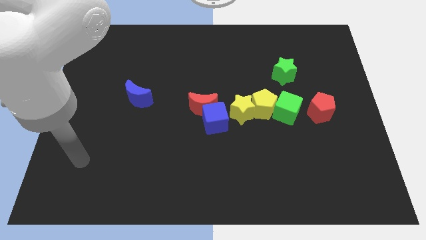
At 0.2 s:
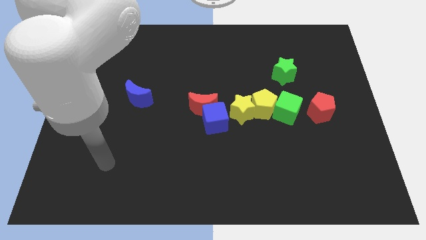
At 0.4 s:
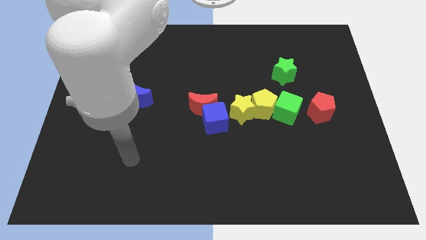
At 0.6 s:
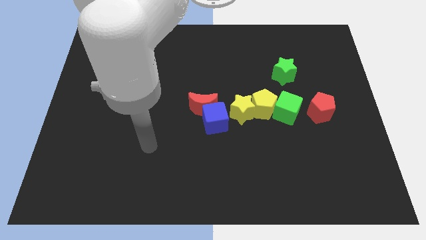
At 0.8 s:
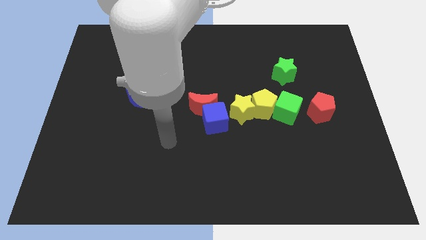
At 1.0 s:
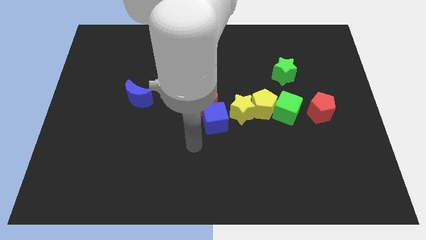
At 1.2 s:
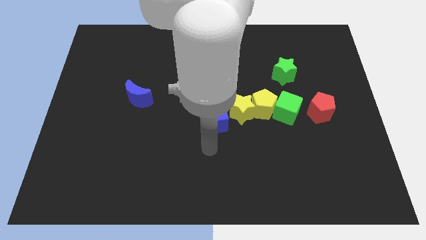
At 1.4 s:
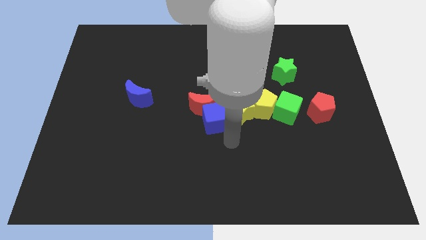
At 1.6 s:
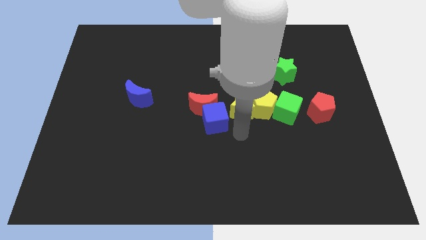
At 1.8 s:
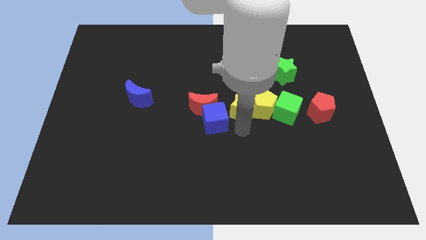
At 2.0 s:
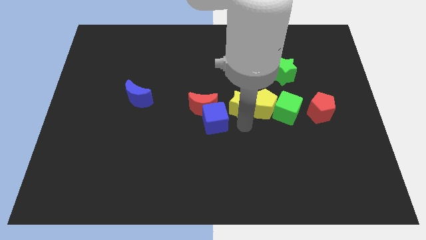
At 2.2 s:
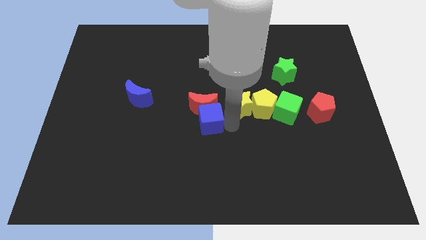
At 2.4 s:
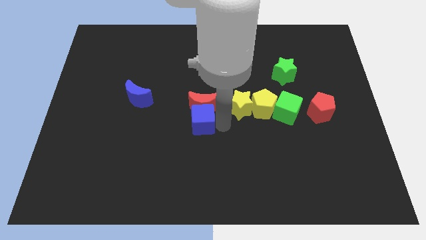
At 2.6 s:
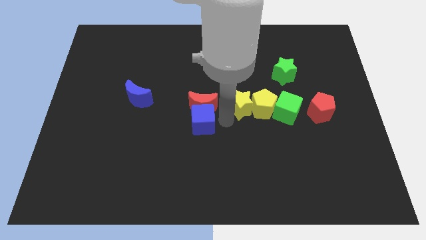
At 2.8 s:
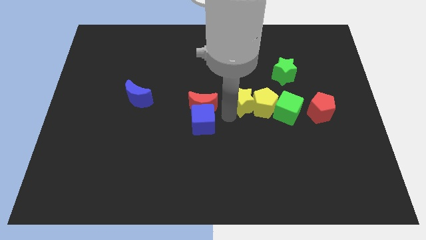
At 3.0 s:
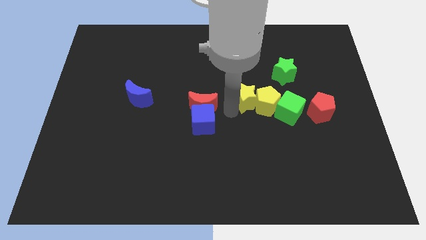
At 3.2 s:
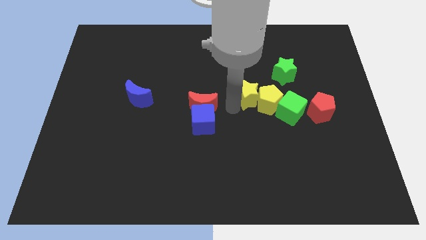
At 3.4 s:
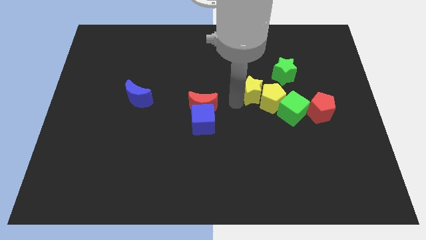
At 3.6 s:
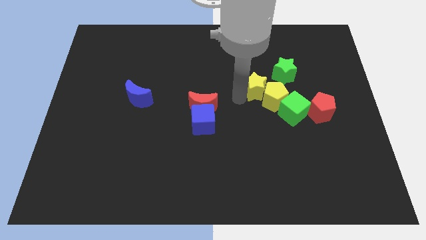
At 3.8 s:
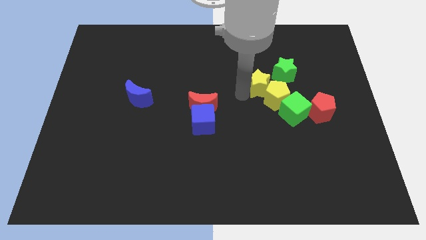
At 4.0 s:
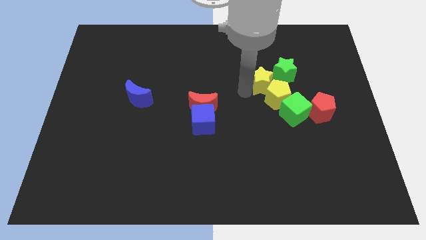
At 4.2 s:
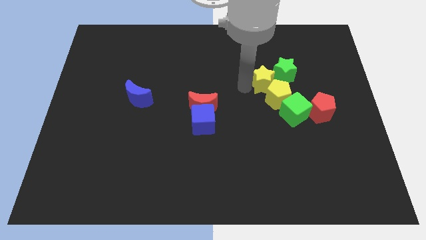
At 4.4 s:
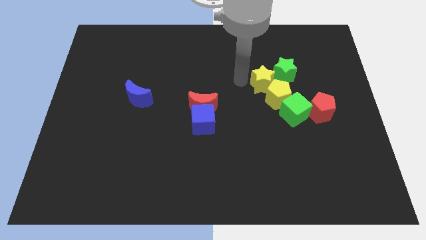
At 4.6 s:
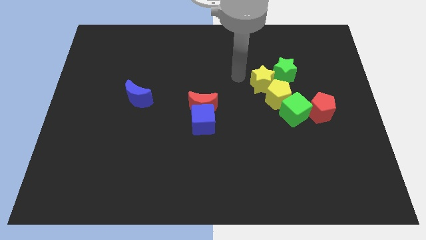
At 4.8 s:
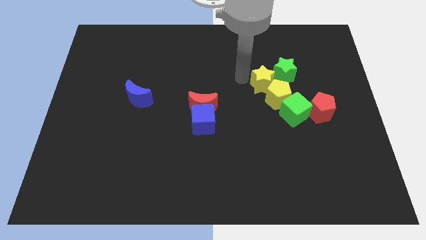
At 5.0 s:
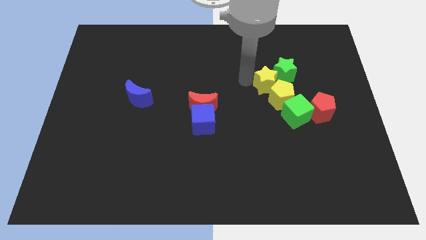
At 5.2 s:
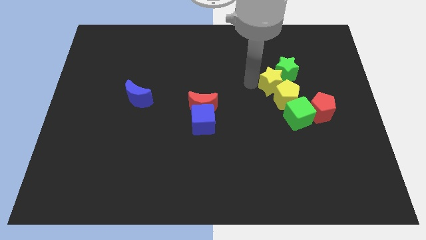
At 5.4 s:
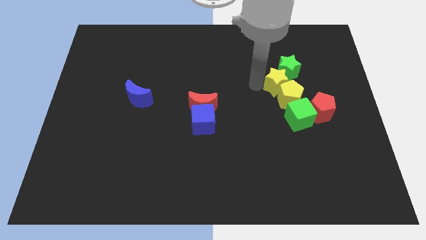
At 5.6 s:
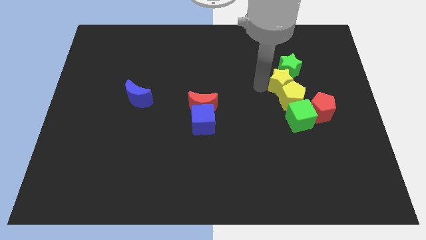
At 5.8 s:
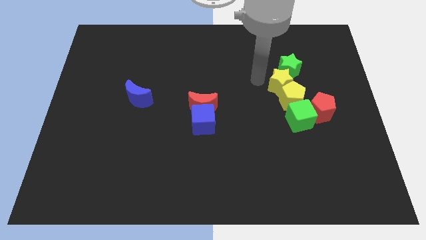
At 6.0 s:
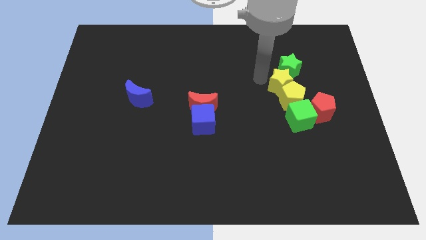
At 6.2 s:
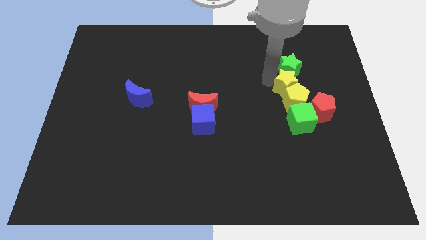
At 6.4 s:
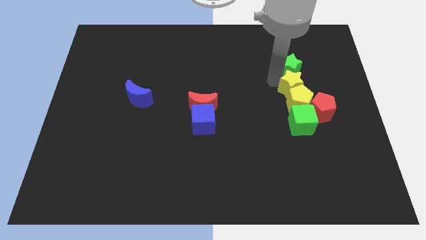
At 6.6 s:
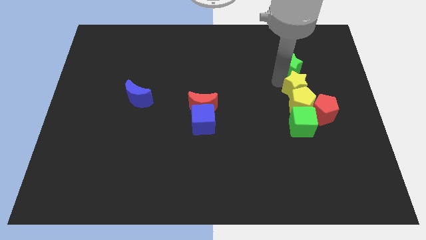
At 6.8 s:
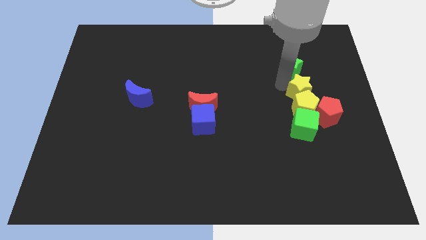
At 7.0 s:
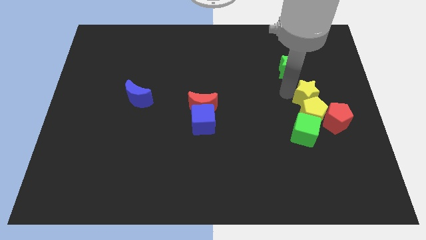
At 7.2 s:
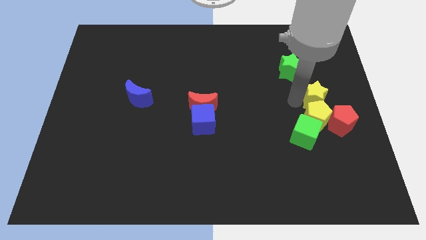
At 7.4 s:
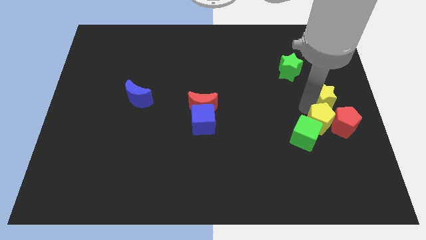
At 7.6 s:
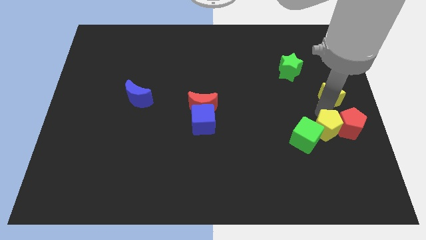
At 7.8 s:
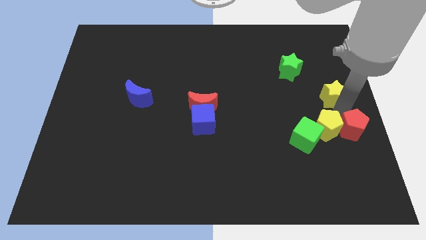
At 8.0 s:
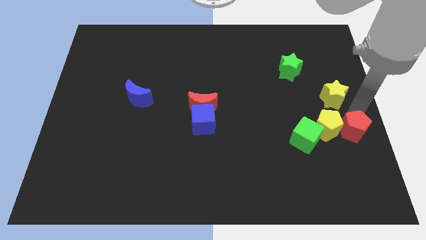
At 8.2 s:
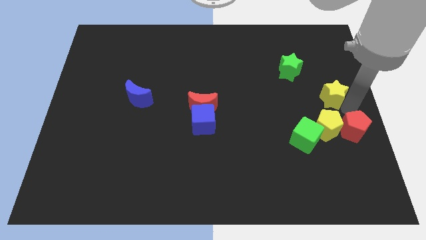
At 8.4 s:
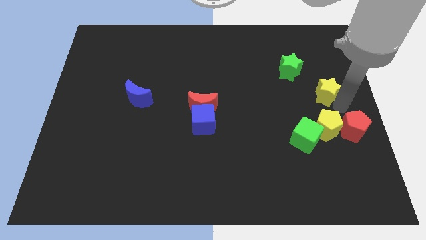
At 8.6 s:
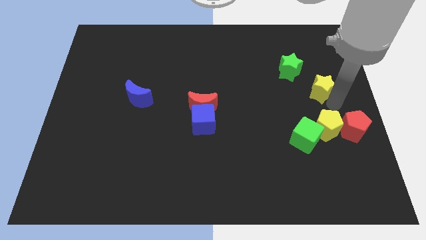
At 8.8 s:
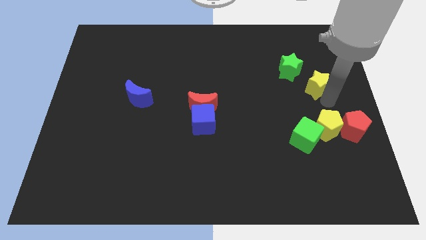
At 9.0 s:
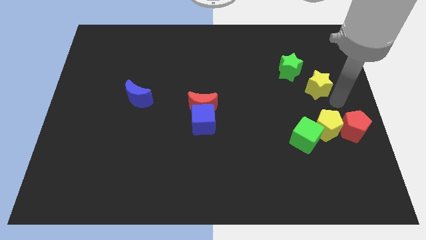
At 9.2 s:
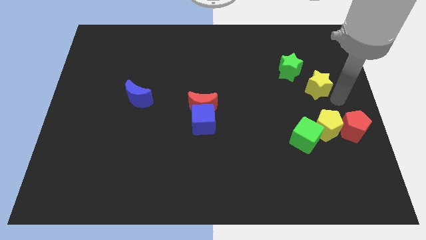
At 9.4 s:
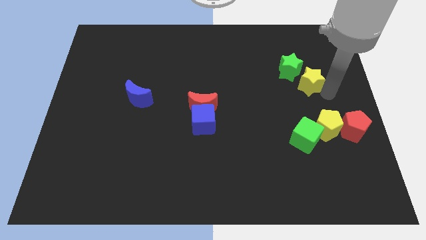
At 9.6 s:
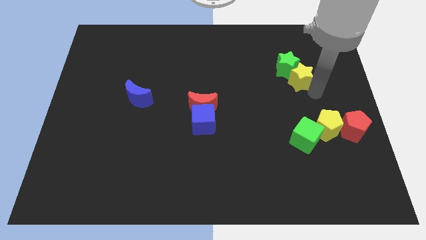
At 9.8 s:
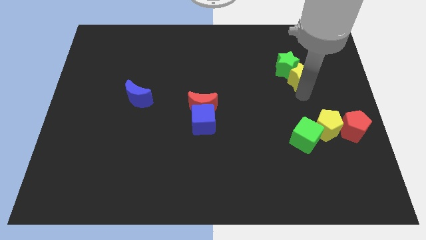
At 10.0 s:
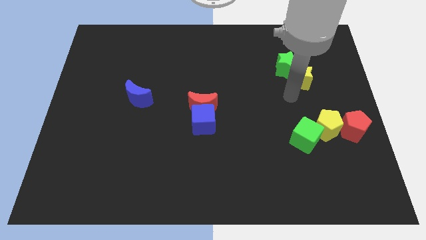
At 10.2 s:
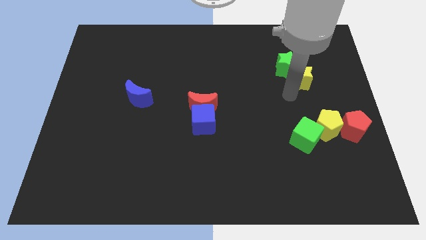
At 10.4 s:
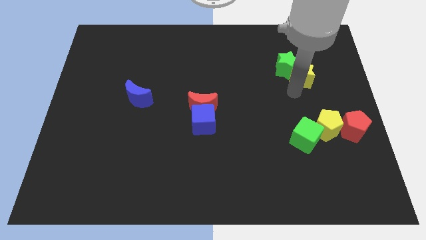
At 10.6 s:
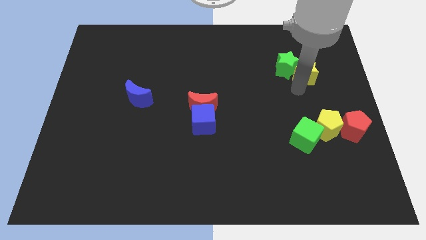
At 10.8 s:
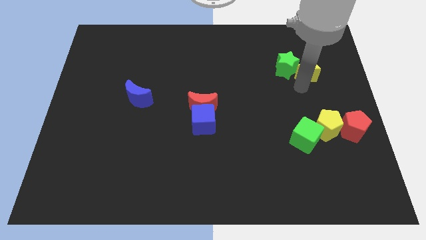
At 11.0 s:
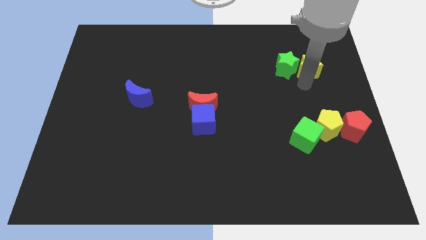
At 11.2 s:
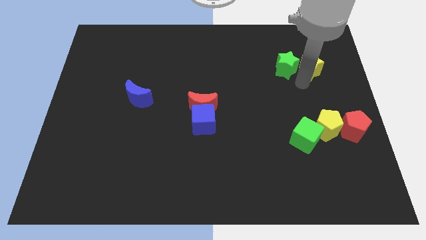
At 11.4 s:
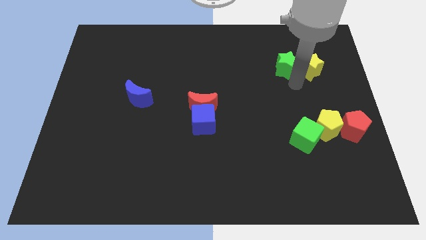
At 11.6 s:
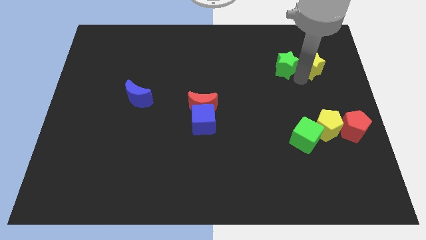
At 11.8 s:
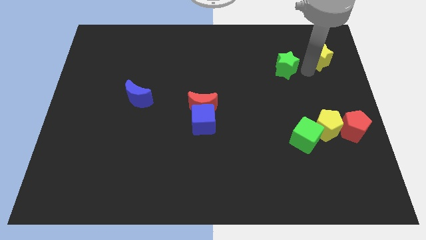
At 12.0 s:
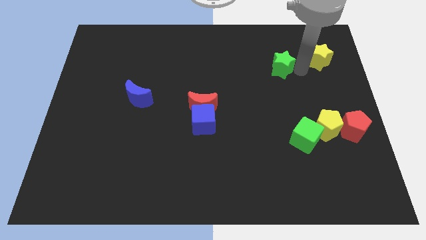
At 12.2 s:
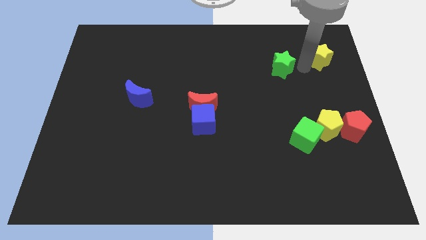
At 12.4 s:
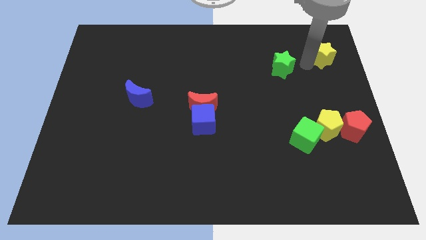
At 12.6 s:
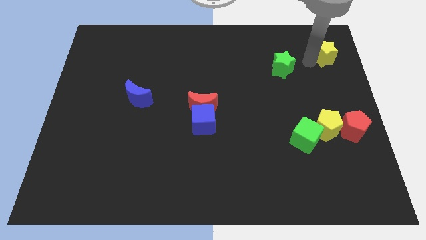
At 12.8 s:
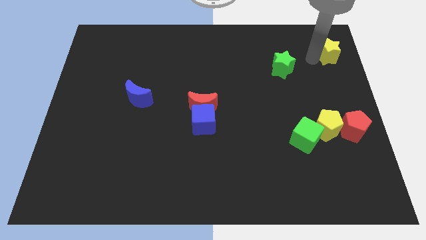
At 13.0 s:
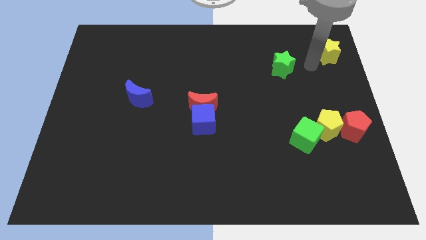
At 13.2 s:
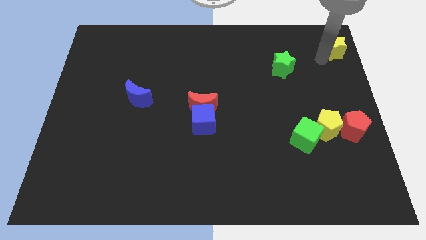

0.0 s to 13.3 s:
move the yellow star to the top right
